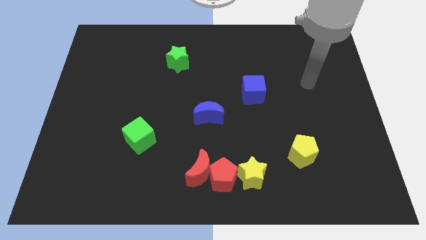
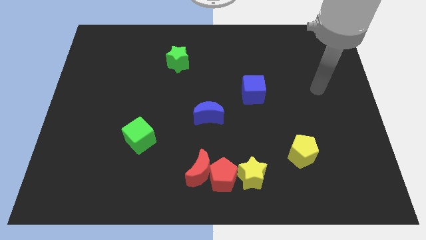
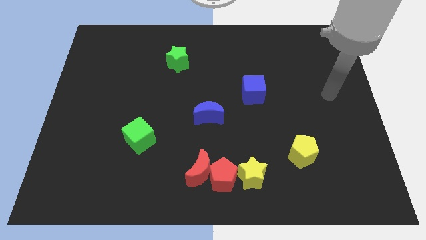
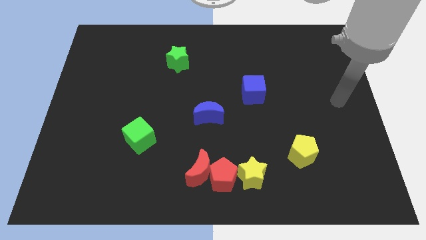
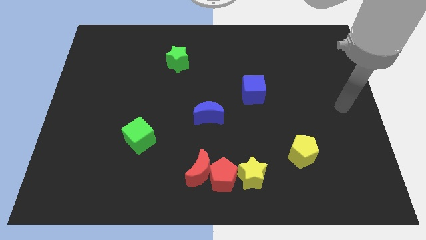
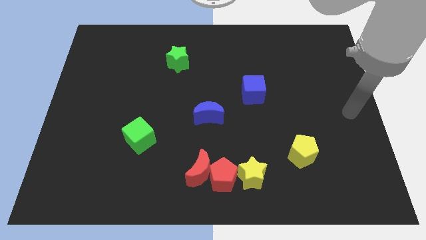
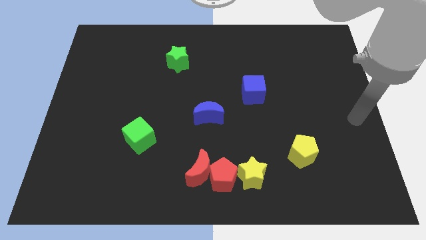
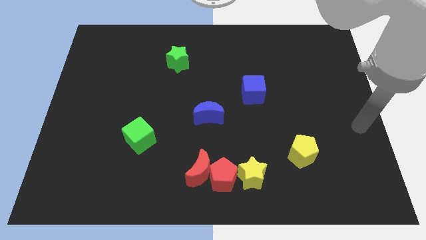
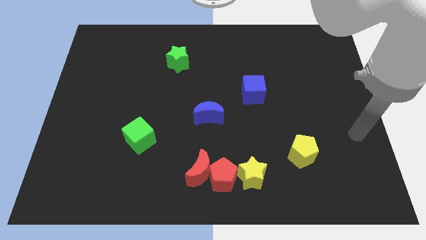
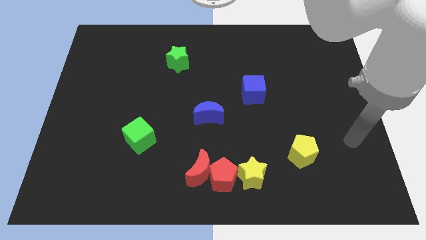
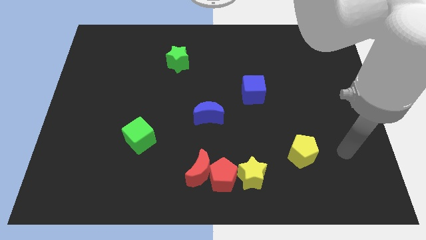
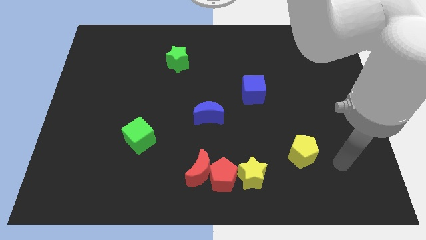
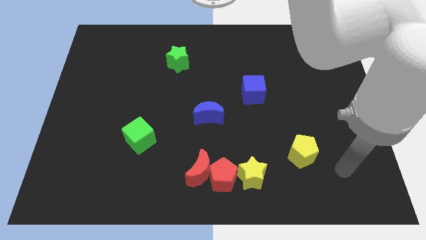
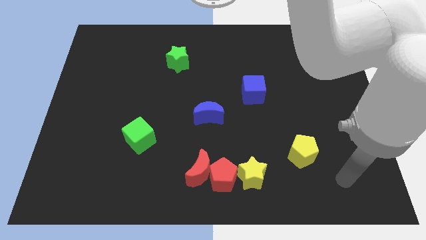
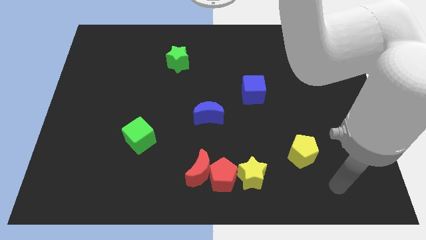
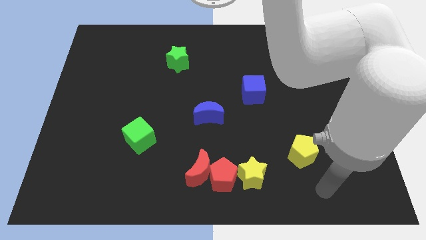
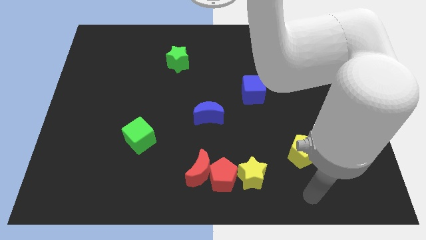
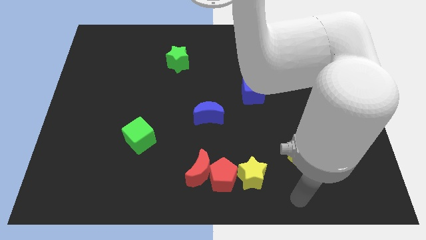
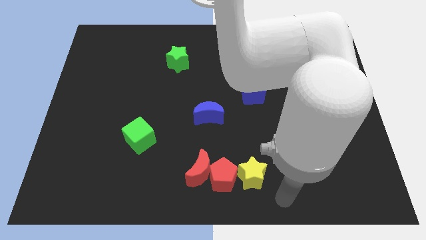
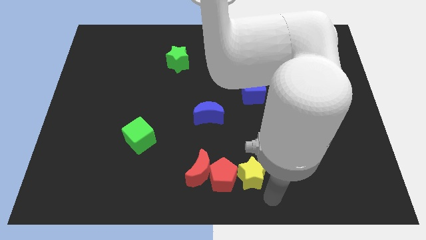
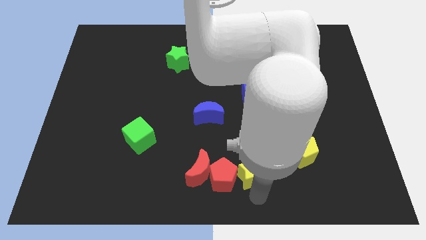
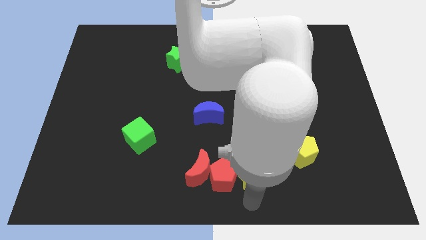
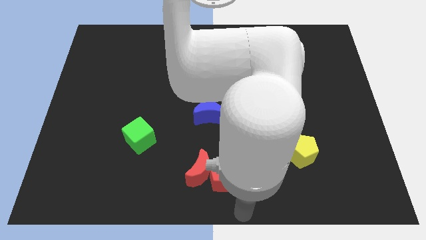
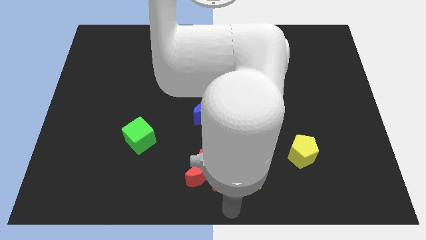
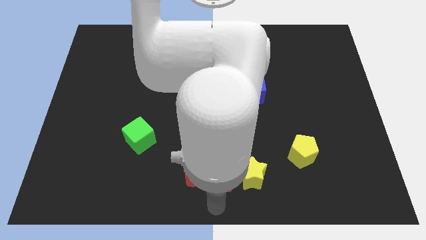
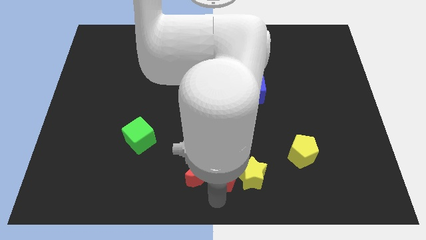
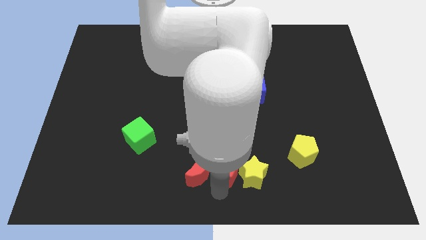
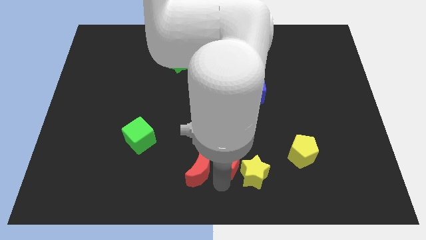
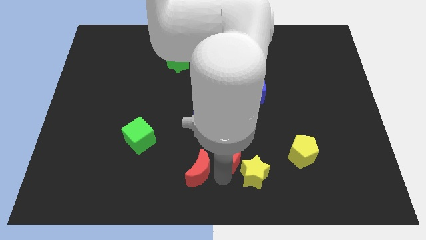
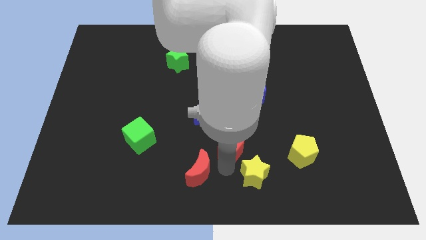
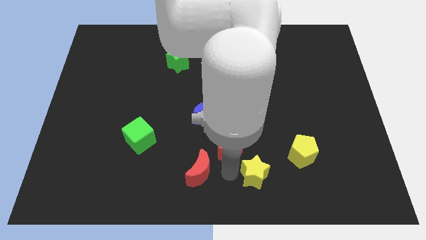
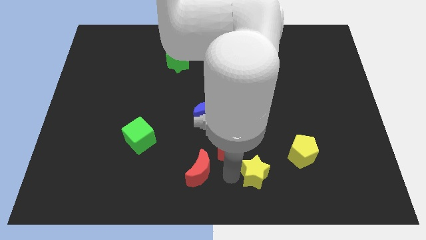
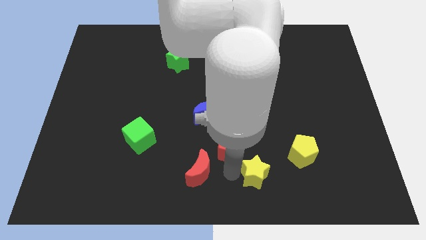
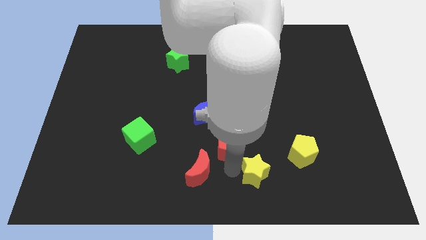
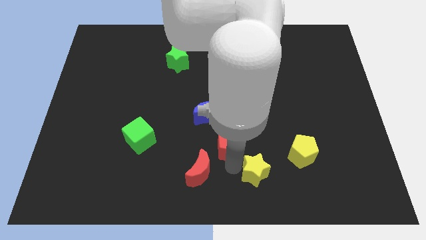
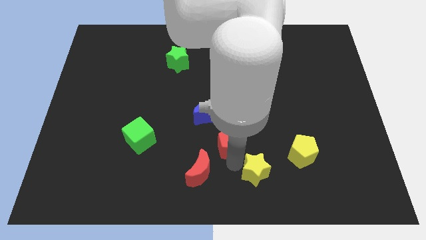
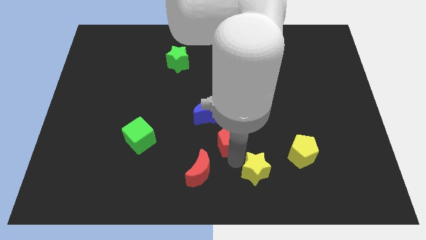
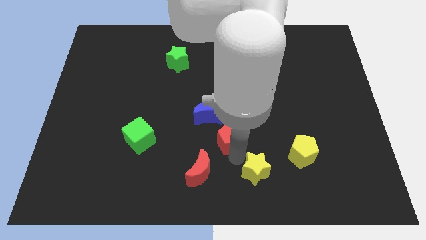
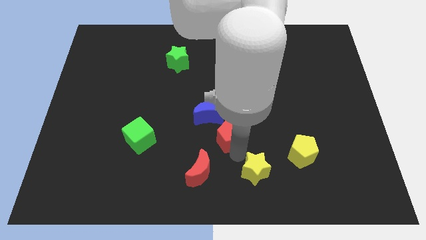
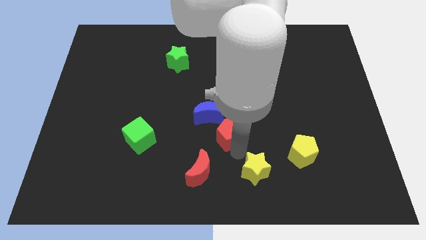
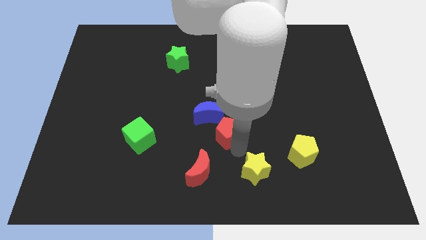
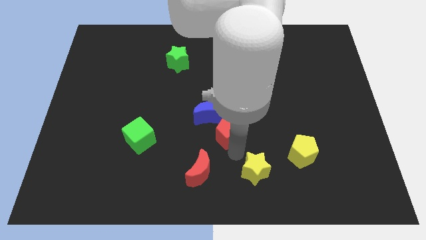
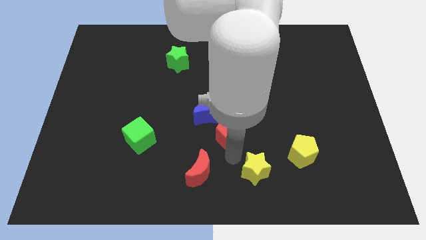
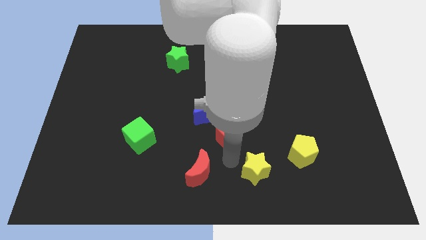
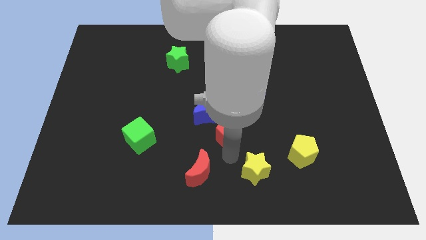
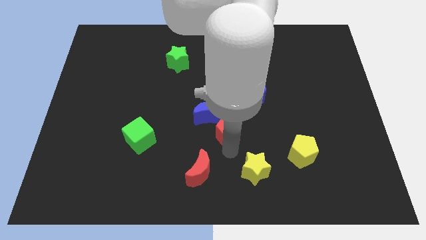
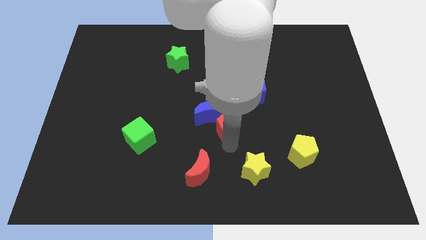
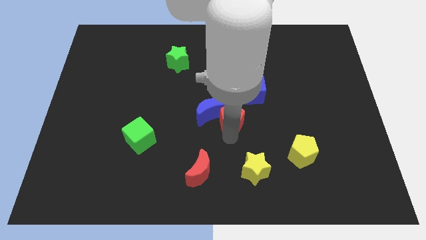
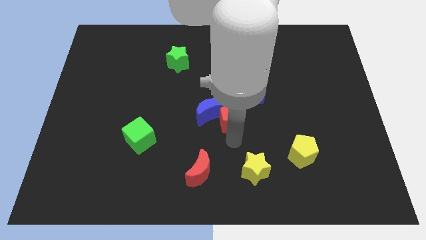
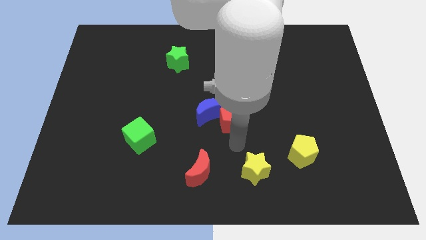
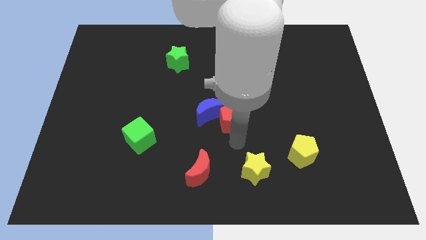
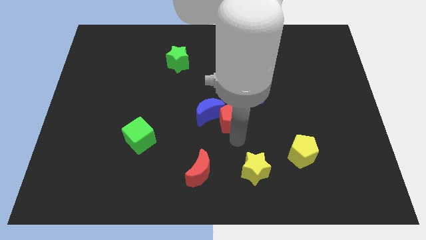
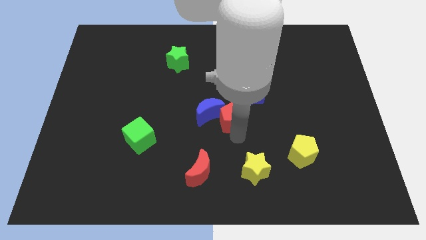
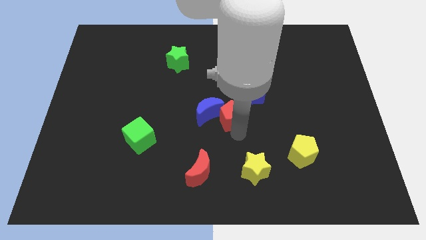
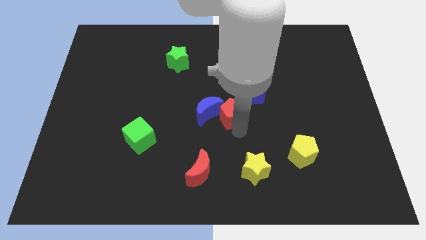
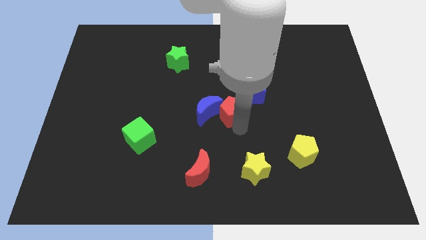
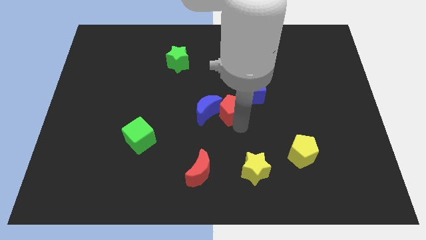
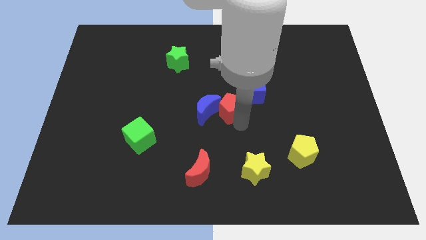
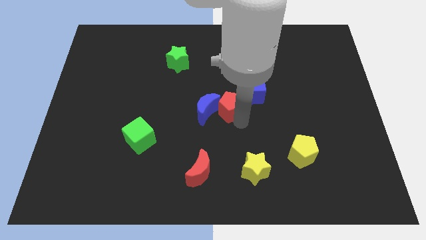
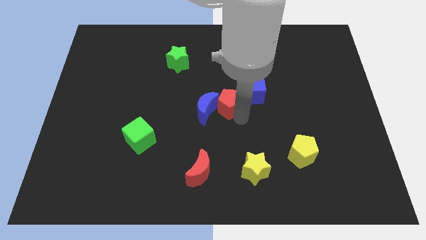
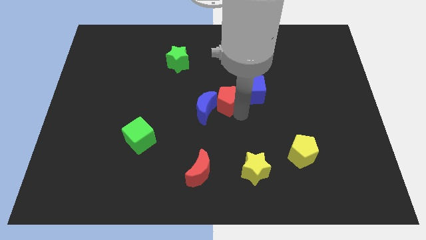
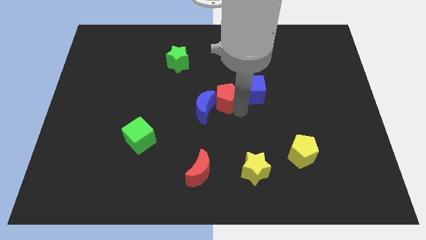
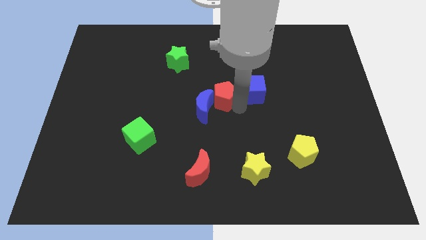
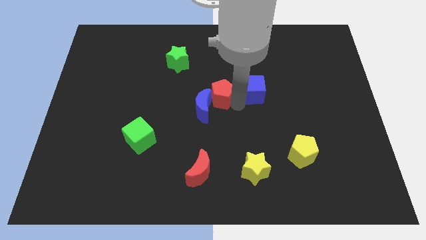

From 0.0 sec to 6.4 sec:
slide the red pentagon to the top of the blue moon

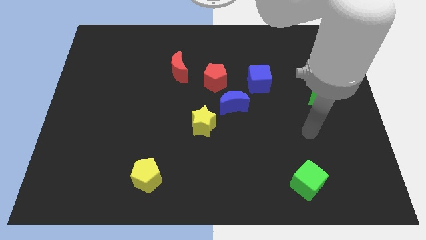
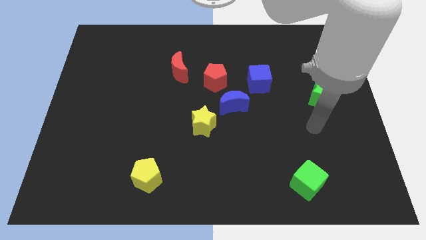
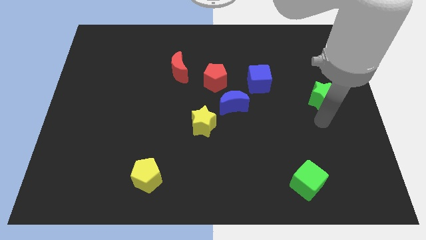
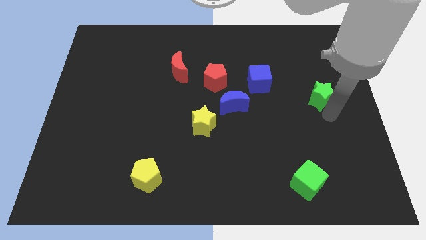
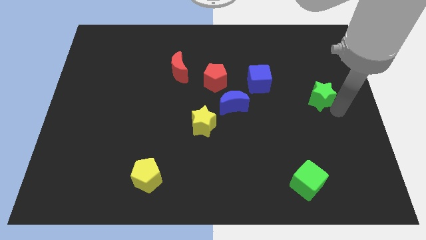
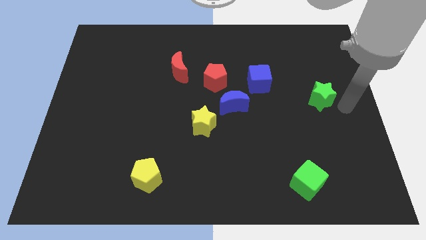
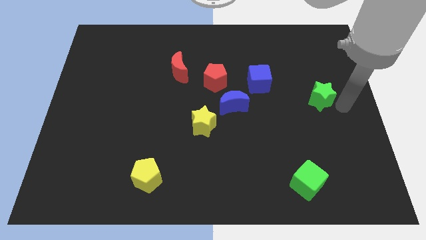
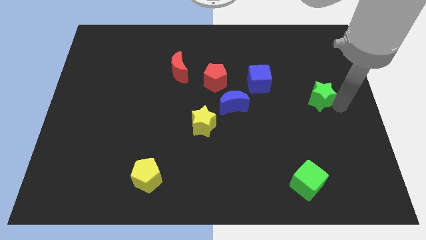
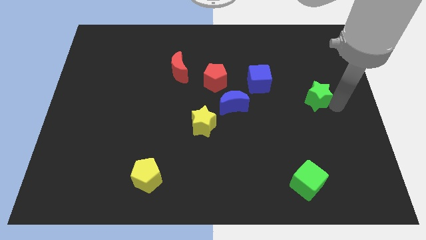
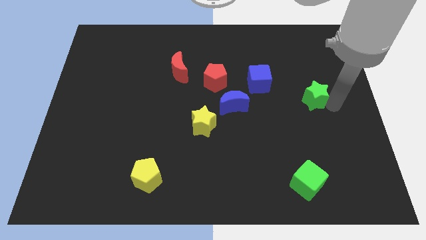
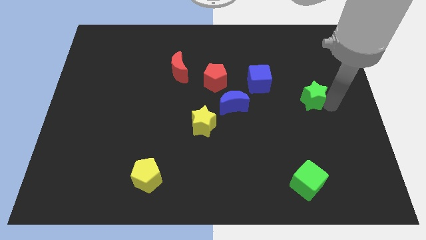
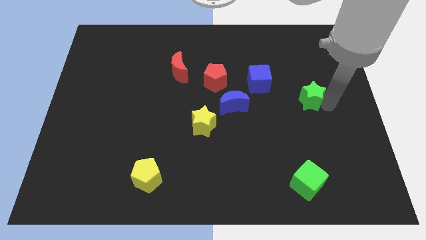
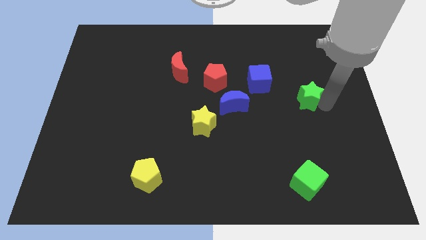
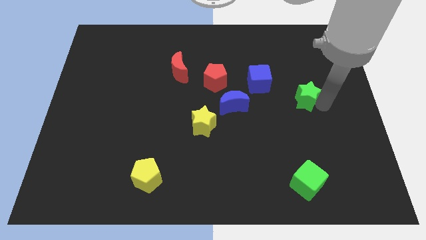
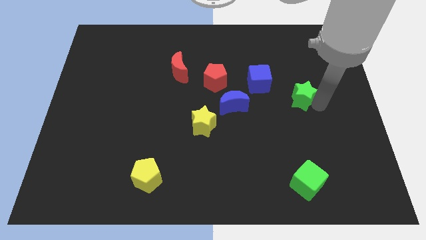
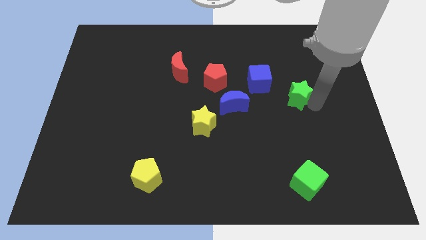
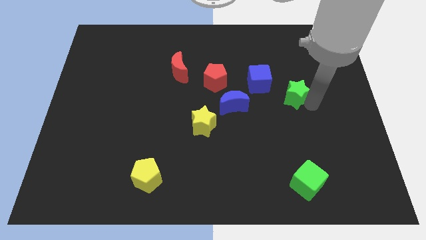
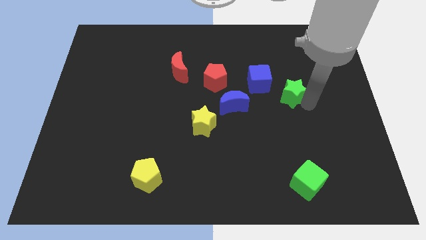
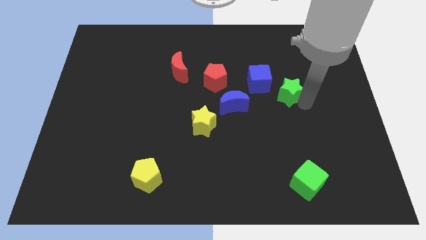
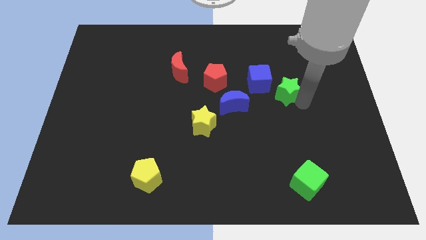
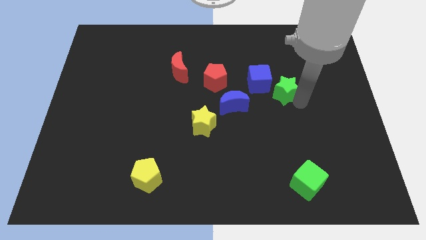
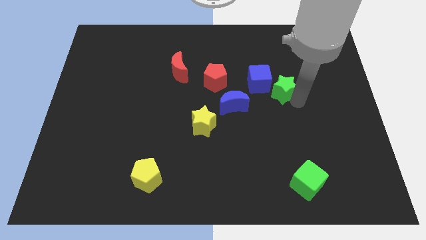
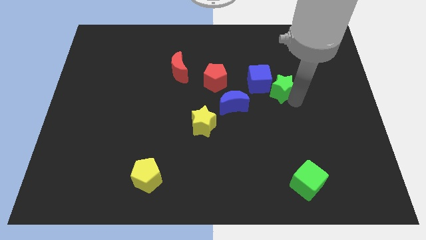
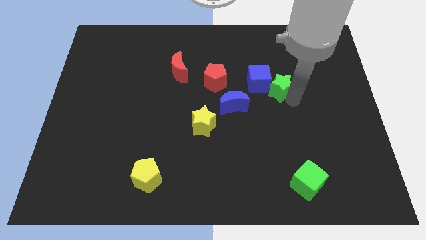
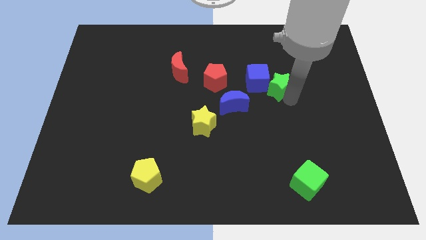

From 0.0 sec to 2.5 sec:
move the green star to the right side of the red pentagon
